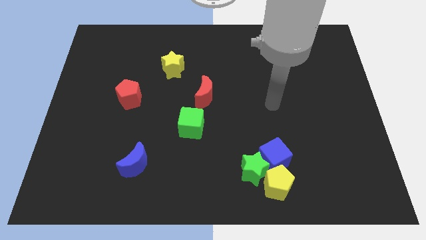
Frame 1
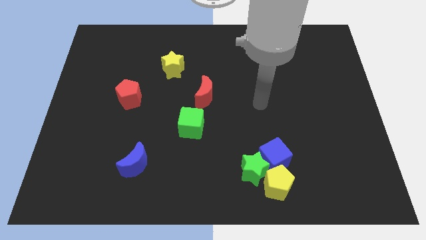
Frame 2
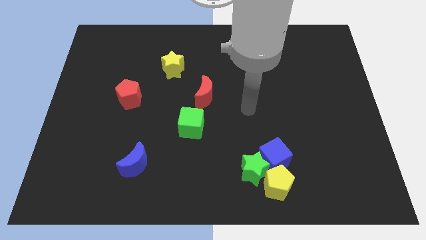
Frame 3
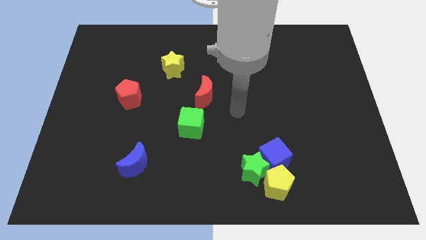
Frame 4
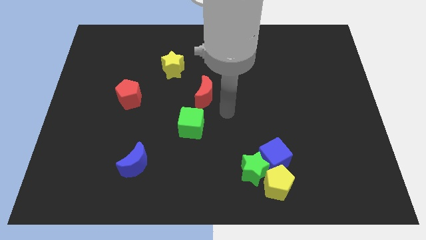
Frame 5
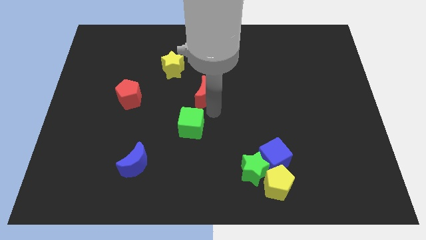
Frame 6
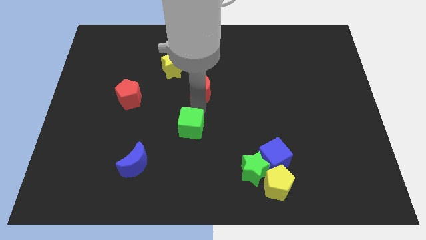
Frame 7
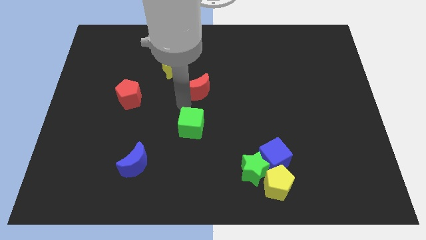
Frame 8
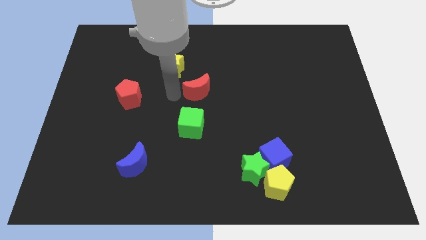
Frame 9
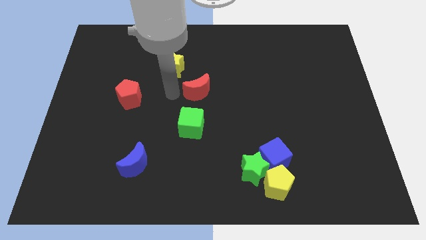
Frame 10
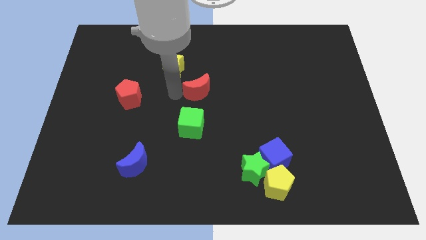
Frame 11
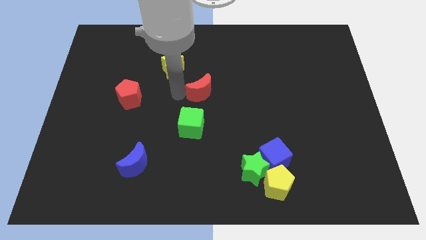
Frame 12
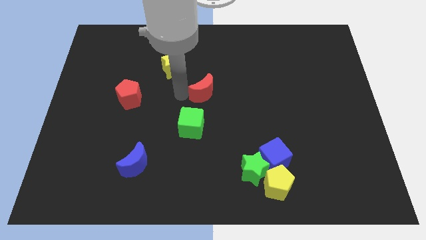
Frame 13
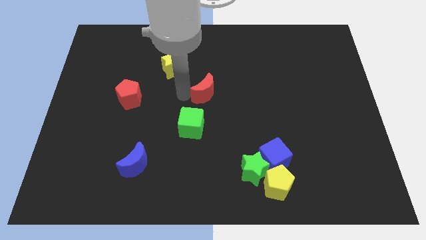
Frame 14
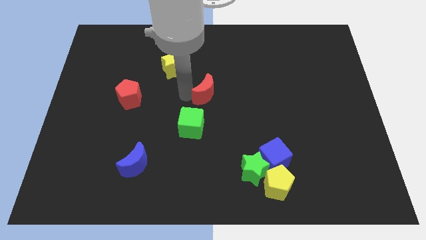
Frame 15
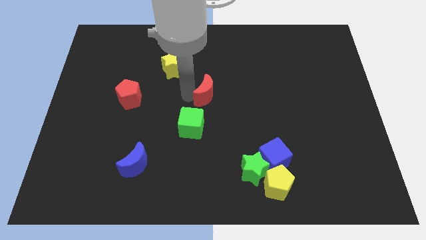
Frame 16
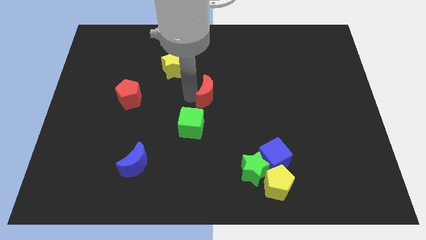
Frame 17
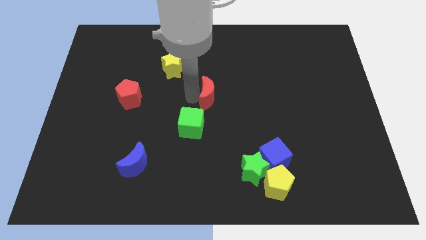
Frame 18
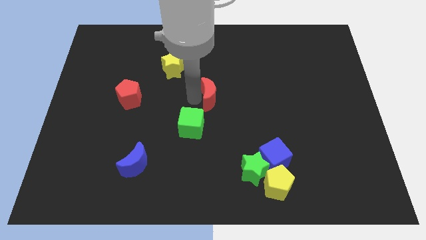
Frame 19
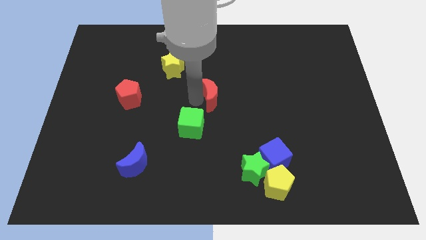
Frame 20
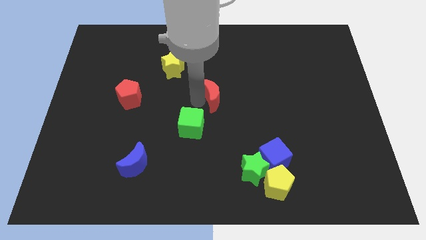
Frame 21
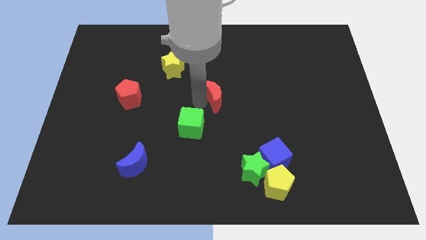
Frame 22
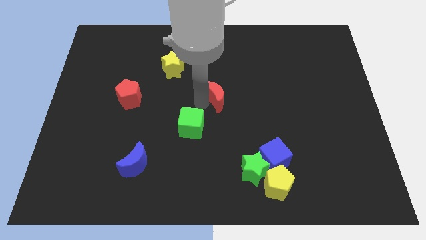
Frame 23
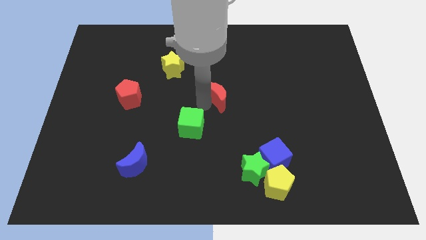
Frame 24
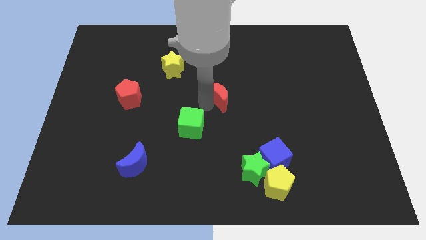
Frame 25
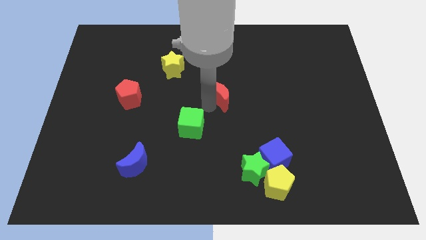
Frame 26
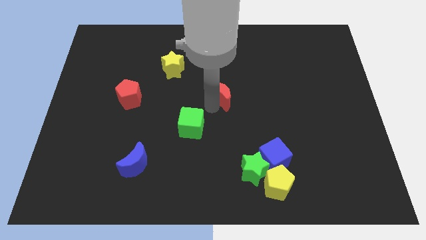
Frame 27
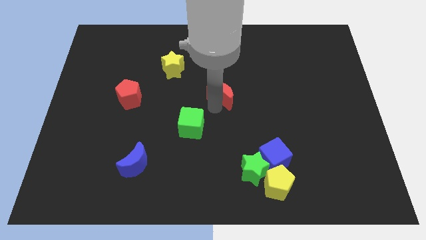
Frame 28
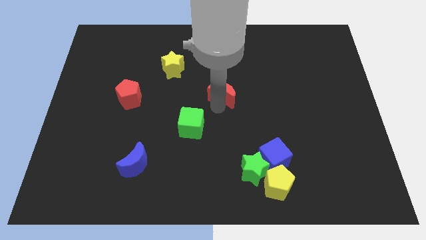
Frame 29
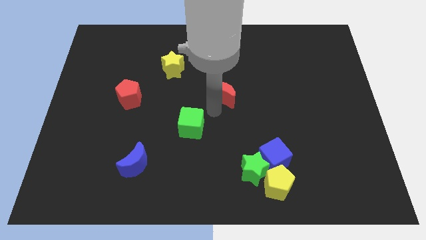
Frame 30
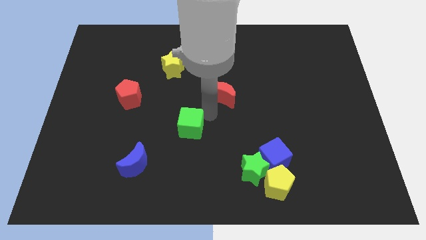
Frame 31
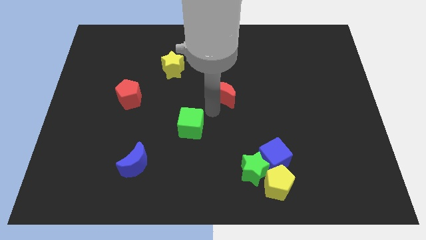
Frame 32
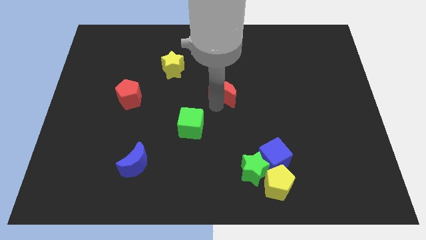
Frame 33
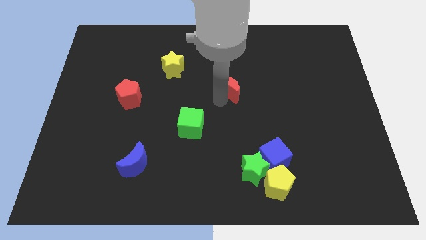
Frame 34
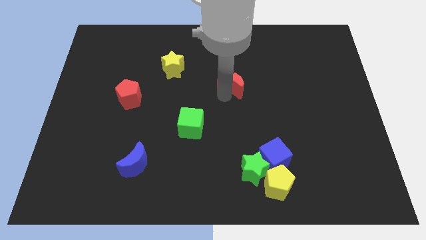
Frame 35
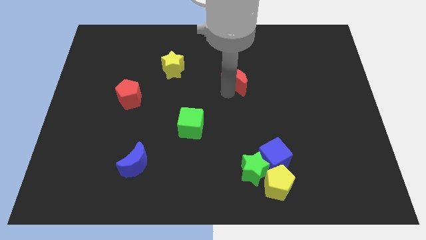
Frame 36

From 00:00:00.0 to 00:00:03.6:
move the red moon somewhat up and to the right diagonally

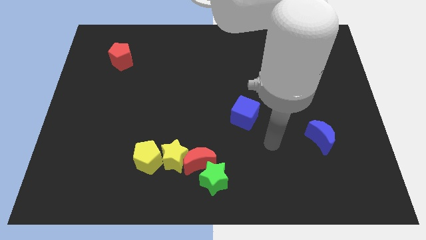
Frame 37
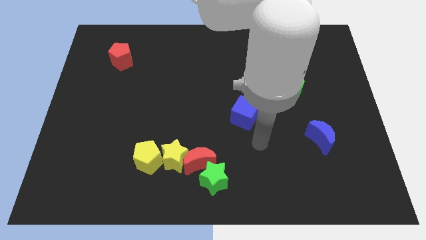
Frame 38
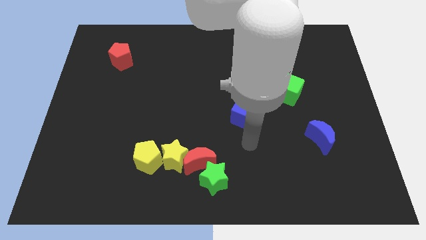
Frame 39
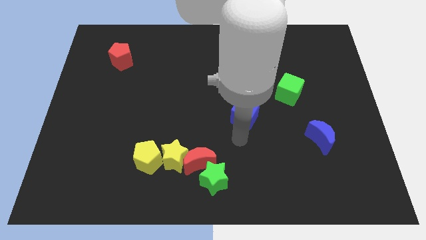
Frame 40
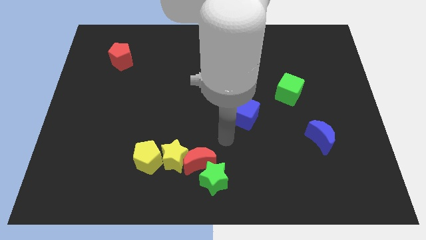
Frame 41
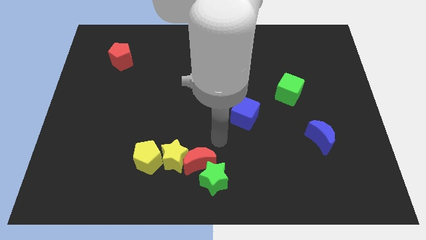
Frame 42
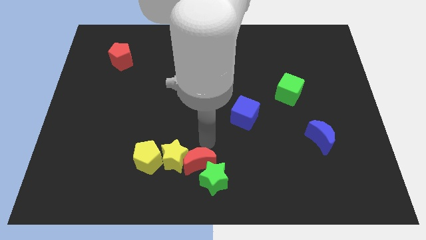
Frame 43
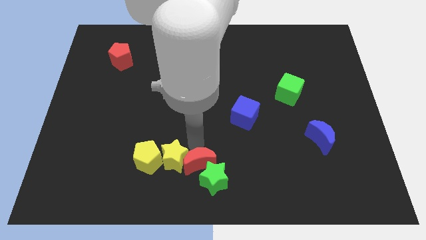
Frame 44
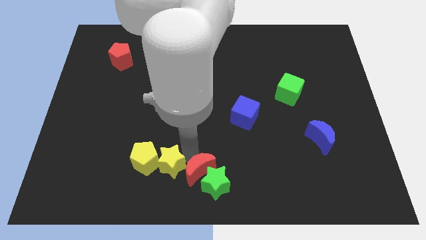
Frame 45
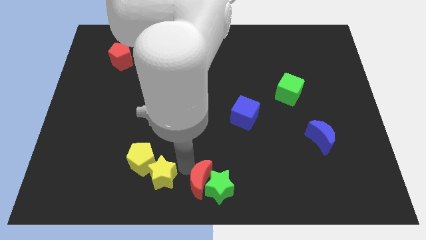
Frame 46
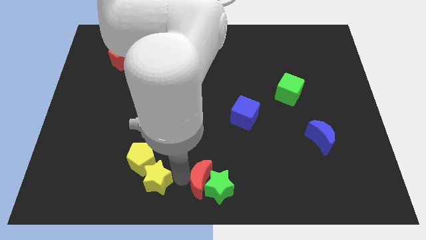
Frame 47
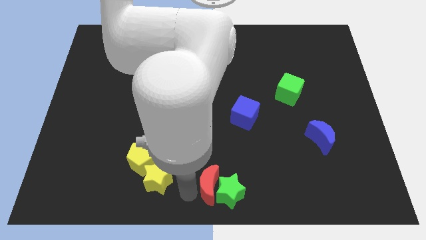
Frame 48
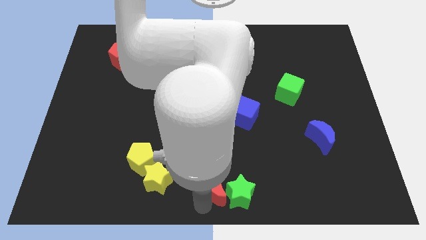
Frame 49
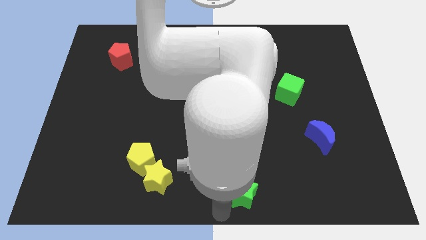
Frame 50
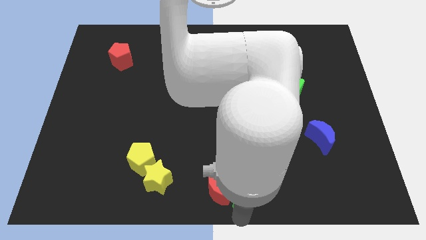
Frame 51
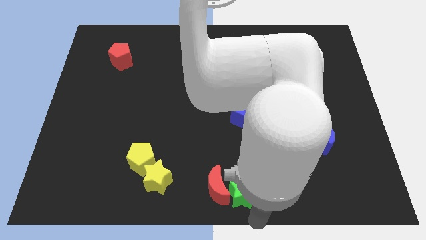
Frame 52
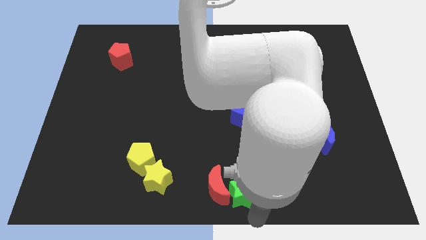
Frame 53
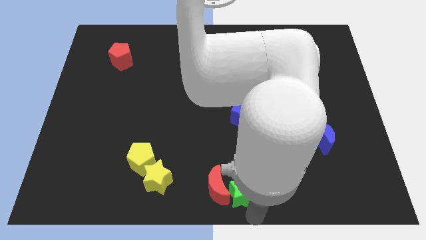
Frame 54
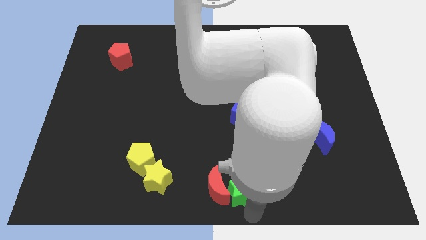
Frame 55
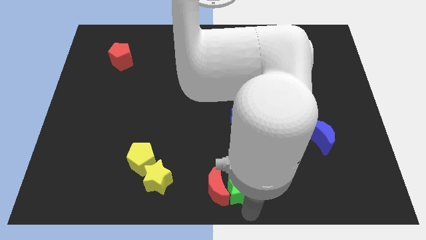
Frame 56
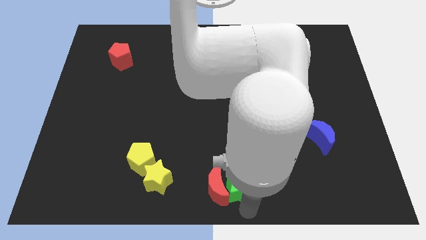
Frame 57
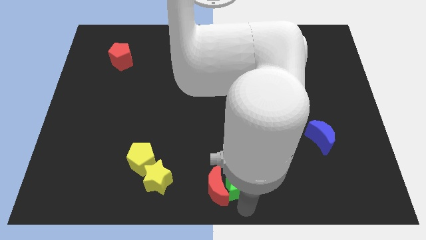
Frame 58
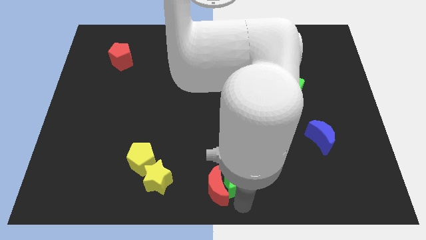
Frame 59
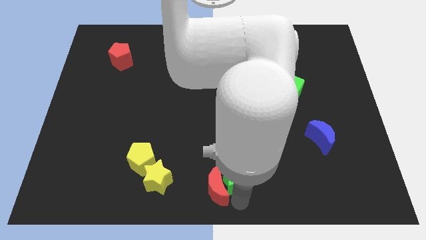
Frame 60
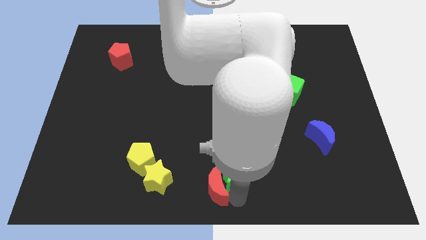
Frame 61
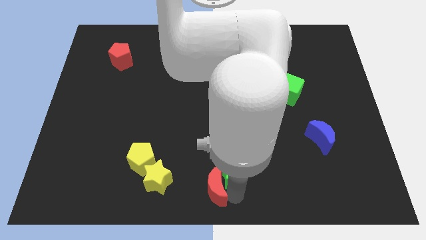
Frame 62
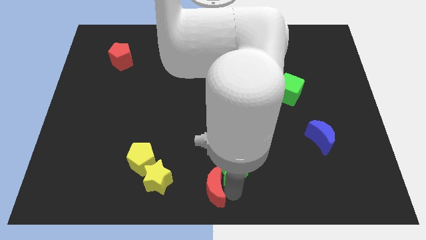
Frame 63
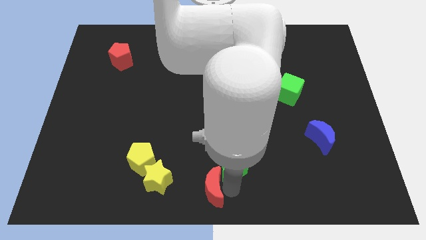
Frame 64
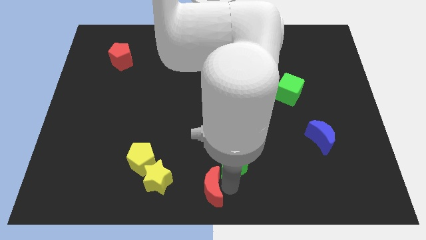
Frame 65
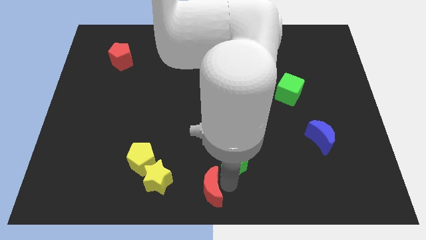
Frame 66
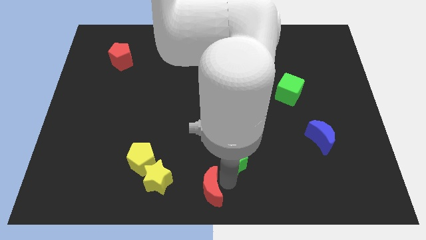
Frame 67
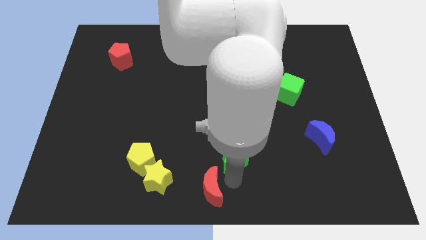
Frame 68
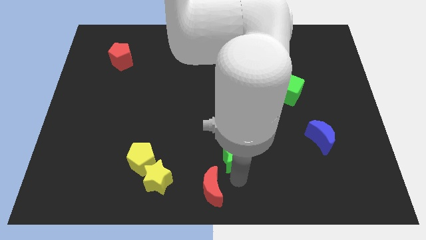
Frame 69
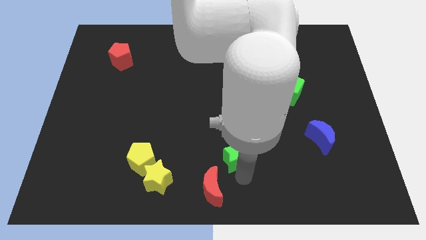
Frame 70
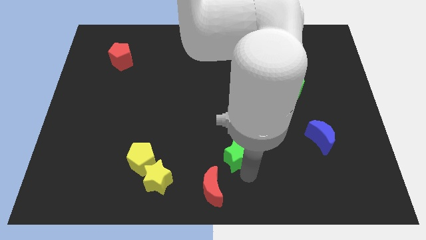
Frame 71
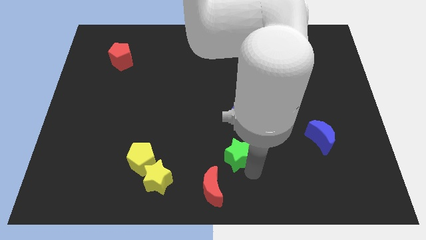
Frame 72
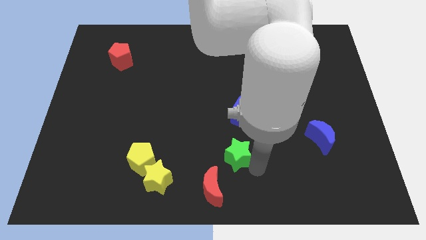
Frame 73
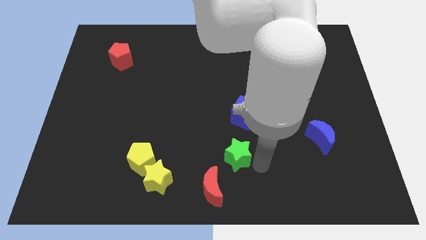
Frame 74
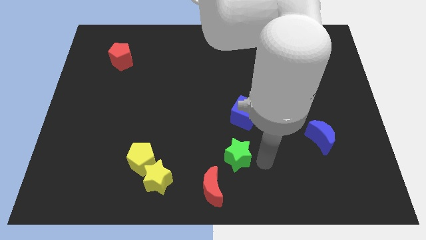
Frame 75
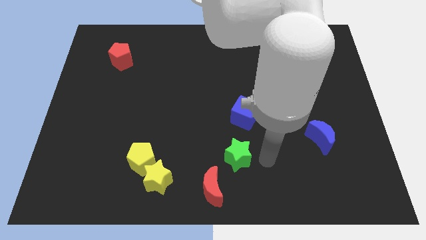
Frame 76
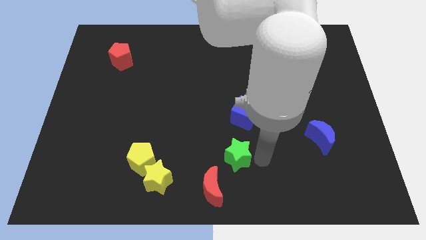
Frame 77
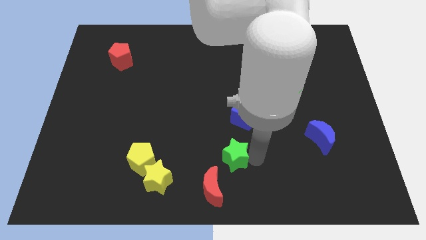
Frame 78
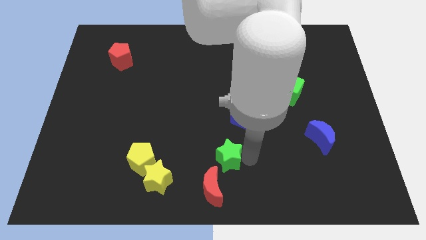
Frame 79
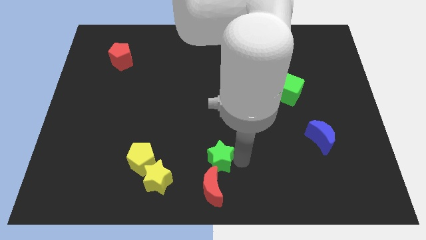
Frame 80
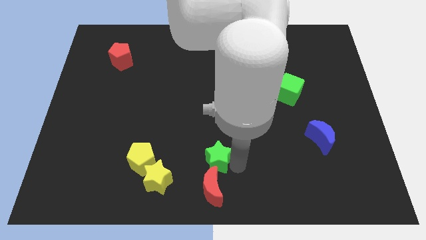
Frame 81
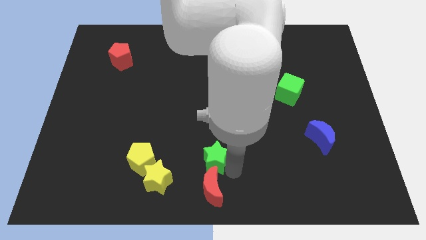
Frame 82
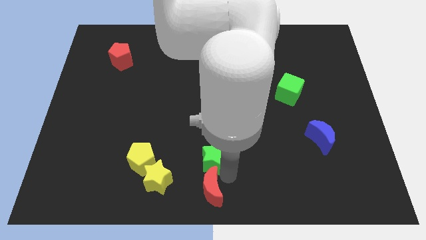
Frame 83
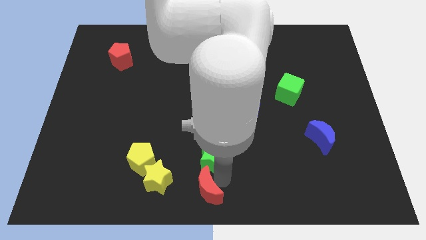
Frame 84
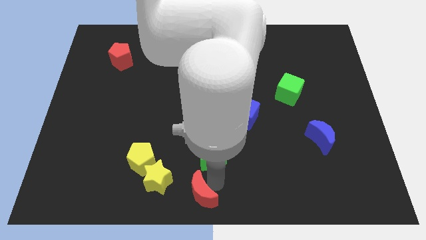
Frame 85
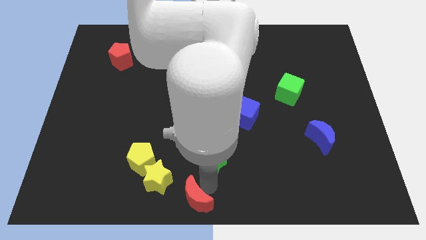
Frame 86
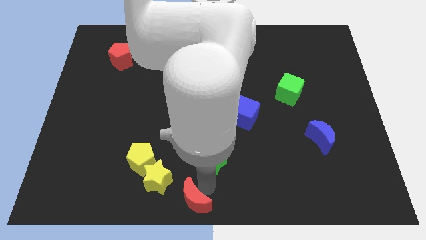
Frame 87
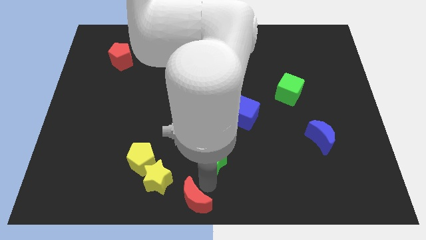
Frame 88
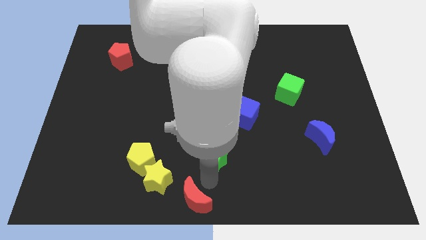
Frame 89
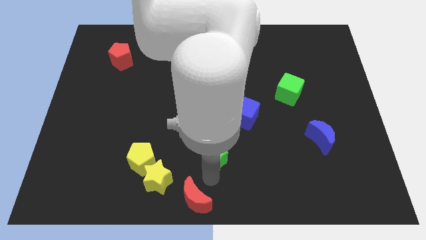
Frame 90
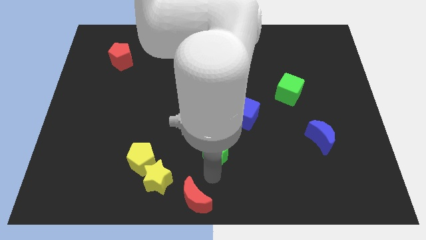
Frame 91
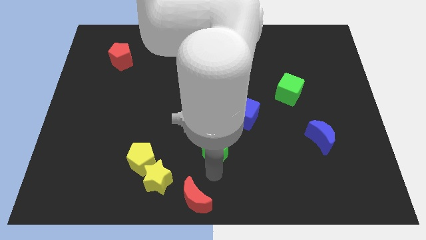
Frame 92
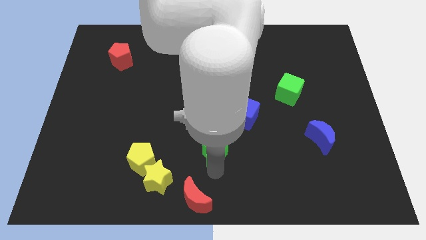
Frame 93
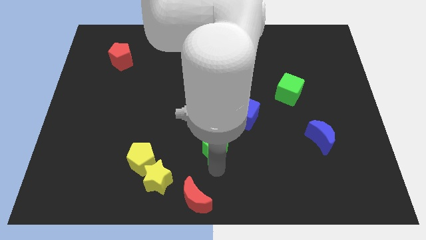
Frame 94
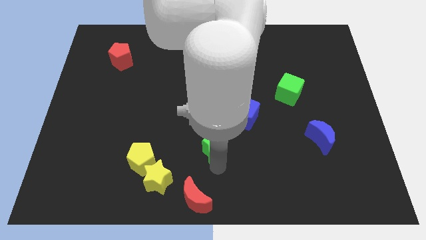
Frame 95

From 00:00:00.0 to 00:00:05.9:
slightly slide the green star up
